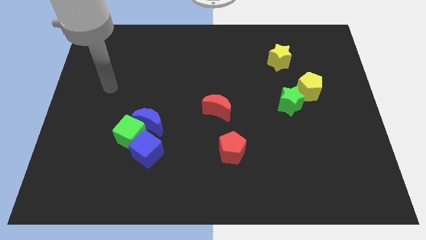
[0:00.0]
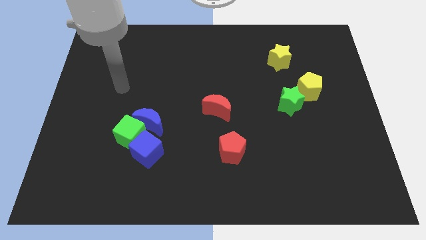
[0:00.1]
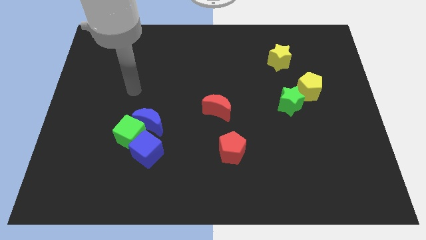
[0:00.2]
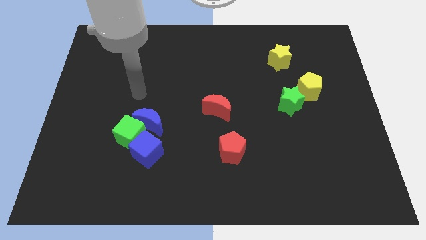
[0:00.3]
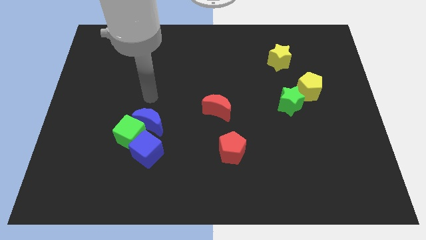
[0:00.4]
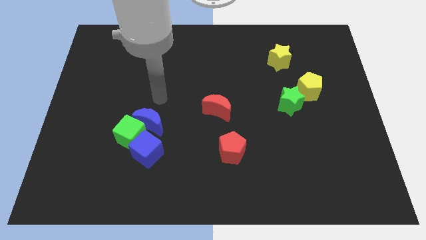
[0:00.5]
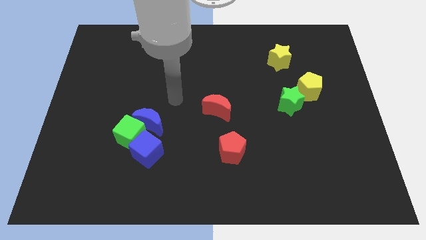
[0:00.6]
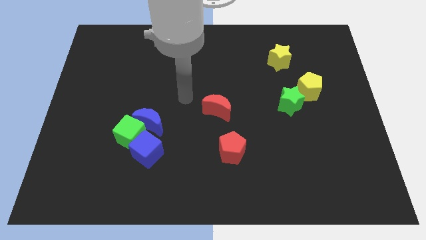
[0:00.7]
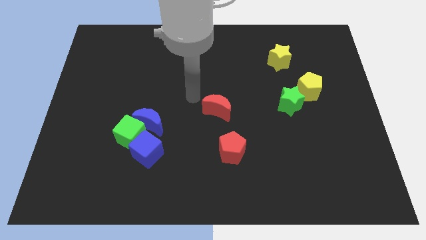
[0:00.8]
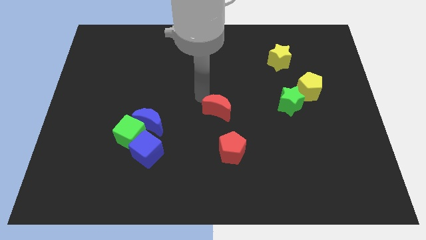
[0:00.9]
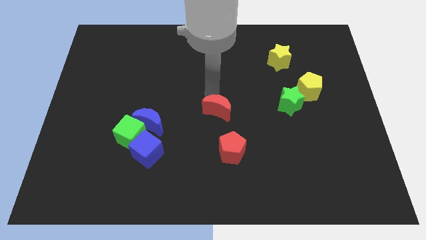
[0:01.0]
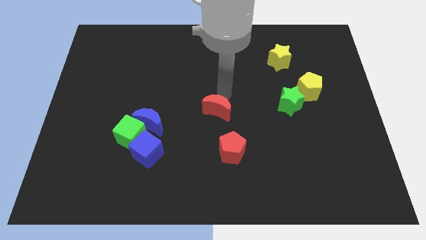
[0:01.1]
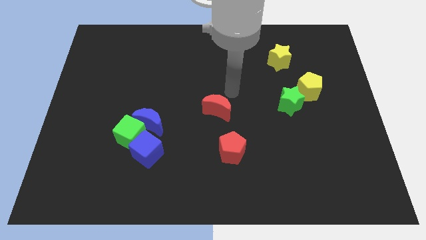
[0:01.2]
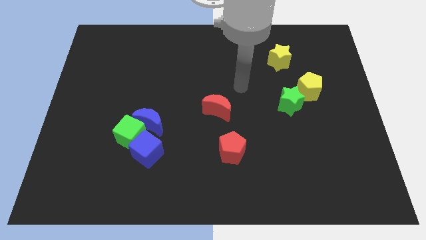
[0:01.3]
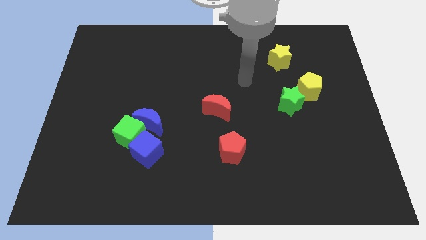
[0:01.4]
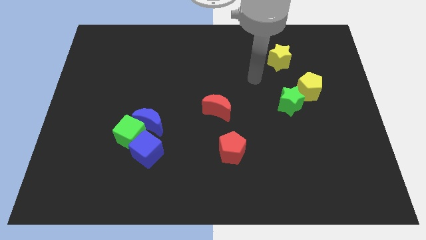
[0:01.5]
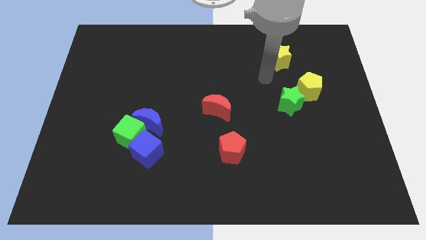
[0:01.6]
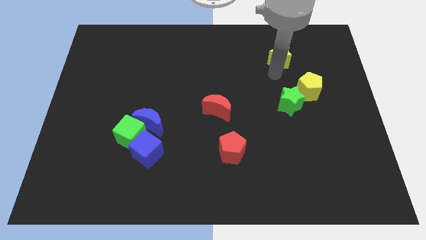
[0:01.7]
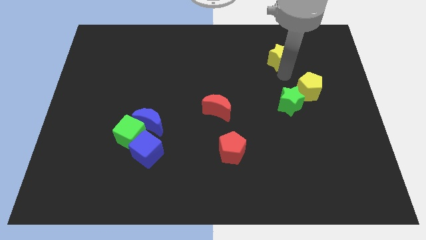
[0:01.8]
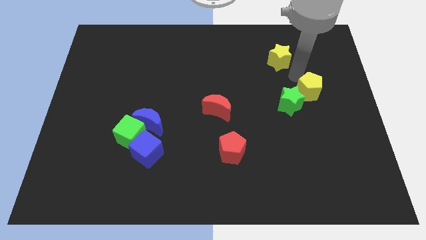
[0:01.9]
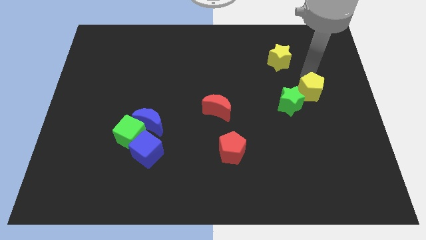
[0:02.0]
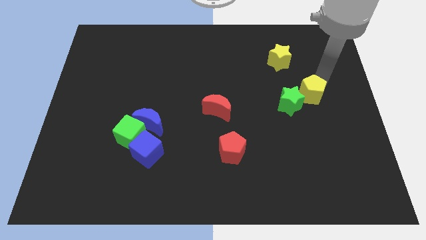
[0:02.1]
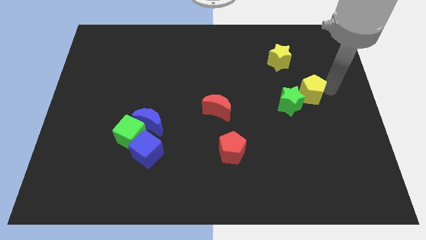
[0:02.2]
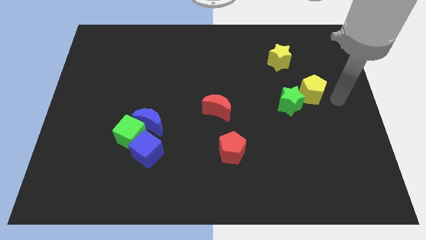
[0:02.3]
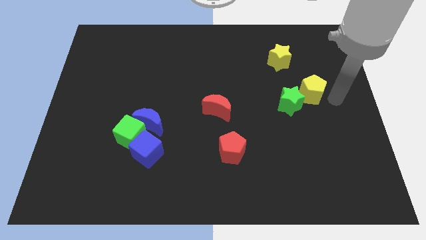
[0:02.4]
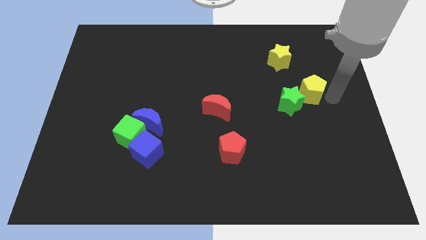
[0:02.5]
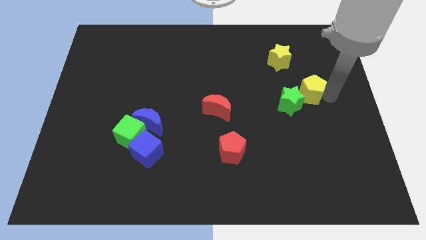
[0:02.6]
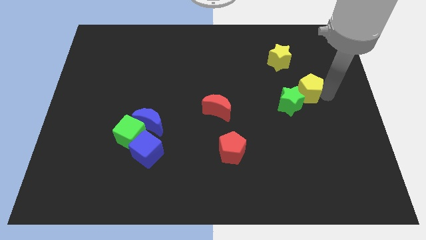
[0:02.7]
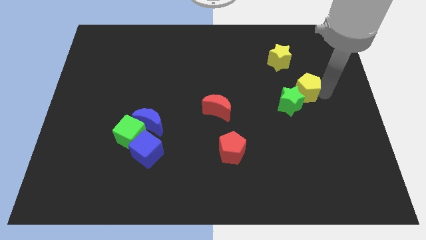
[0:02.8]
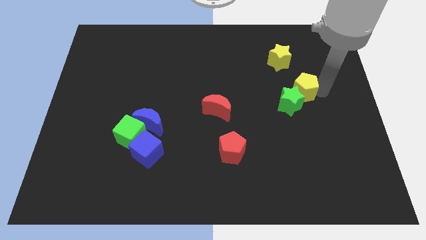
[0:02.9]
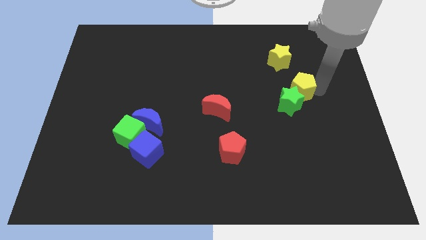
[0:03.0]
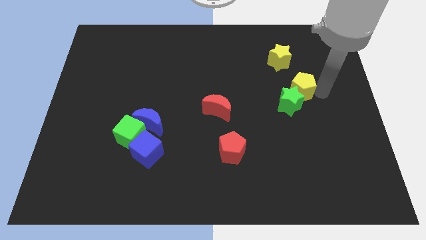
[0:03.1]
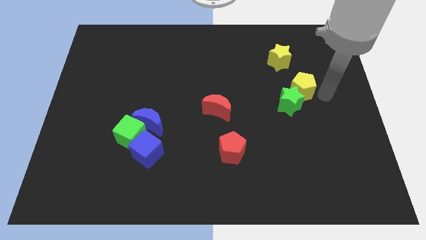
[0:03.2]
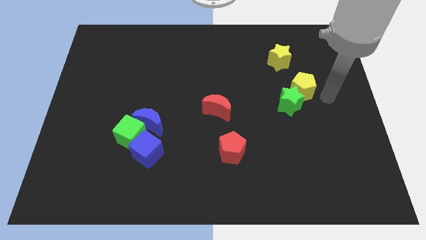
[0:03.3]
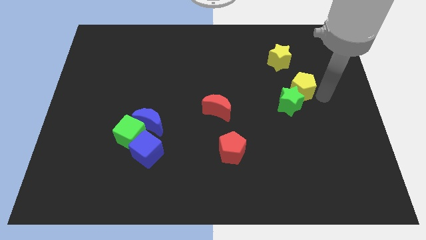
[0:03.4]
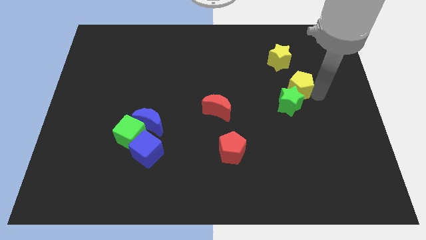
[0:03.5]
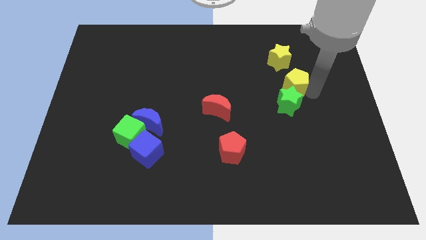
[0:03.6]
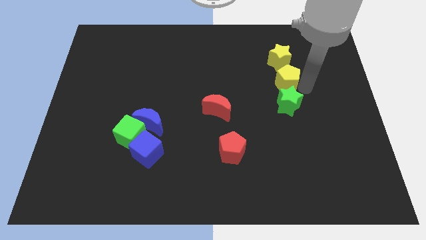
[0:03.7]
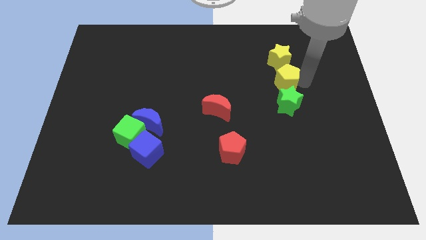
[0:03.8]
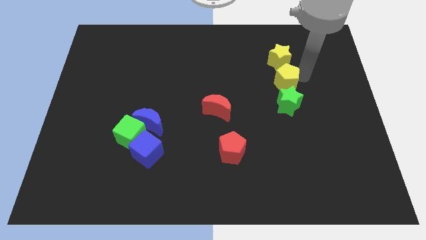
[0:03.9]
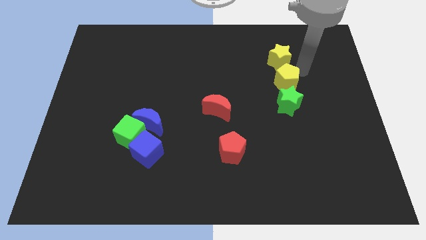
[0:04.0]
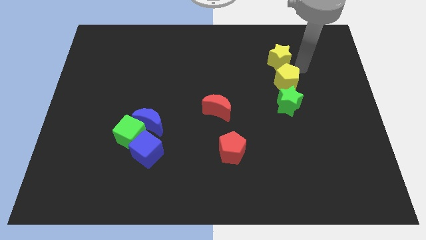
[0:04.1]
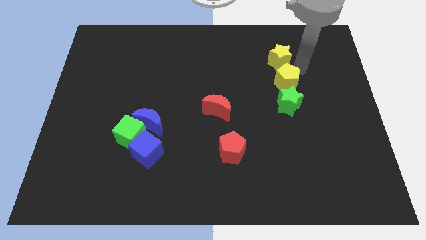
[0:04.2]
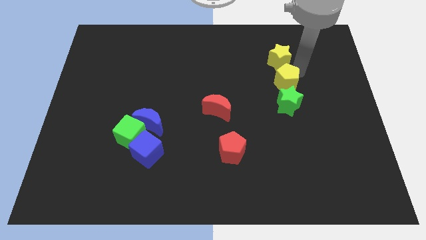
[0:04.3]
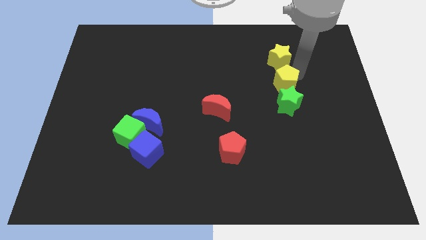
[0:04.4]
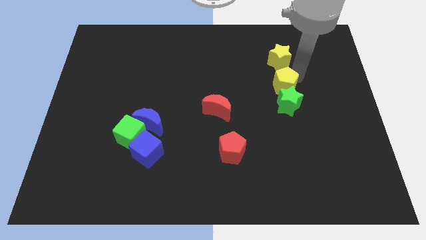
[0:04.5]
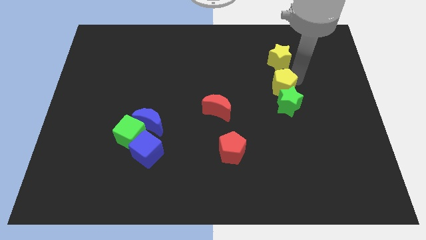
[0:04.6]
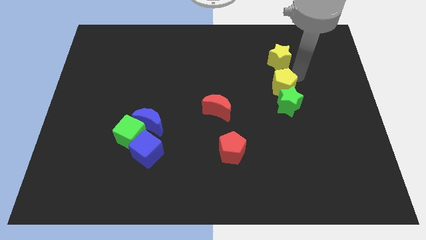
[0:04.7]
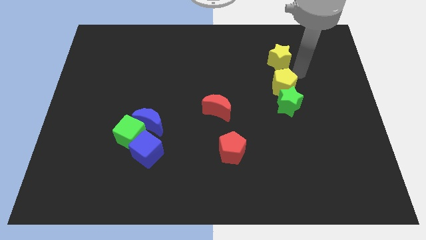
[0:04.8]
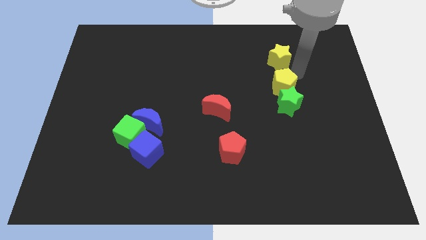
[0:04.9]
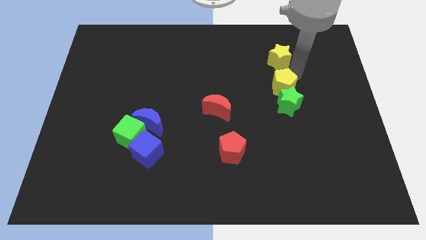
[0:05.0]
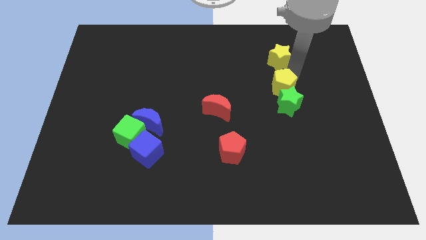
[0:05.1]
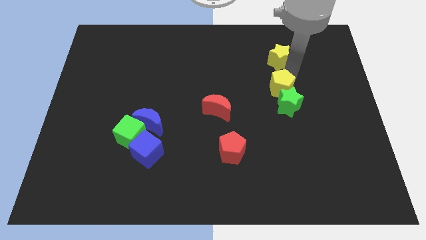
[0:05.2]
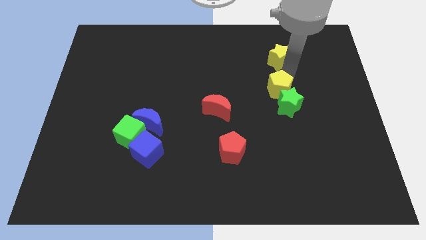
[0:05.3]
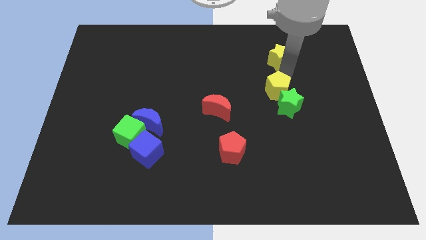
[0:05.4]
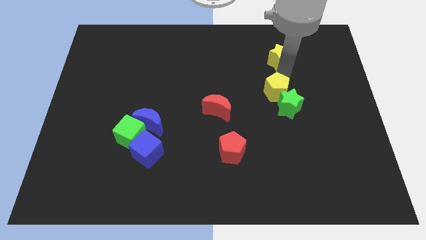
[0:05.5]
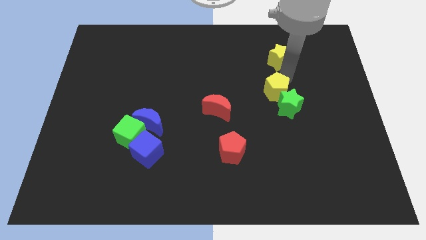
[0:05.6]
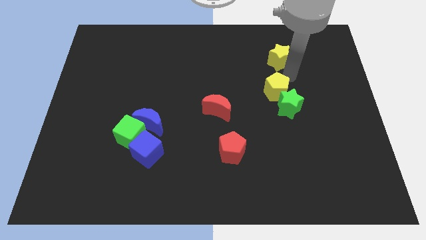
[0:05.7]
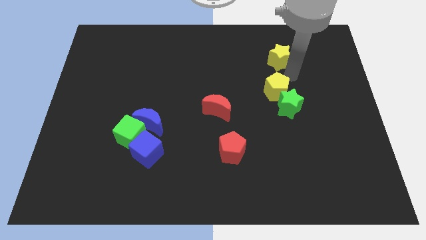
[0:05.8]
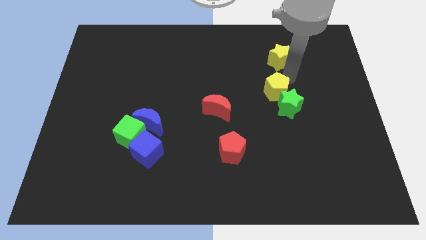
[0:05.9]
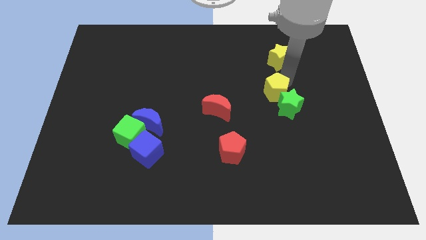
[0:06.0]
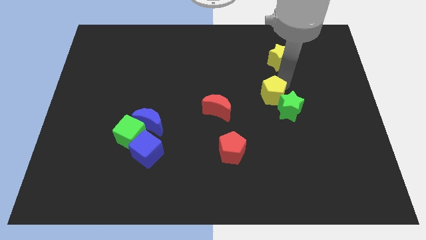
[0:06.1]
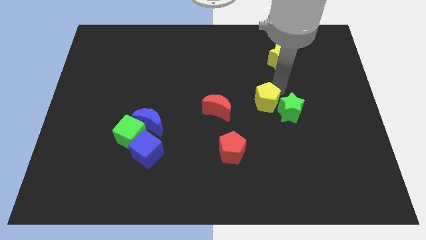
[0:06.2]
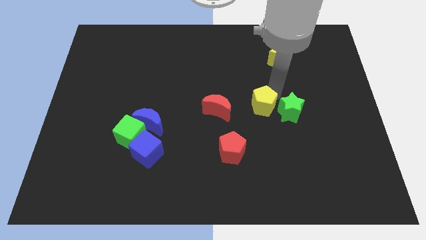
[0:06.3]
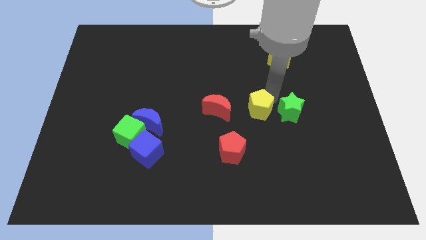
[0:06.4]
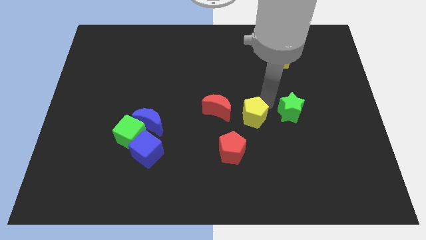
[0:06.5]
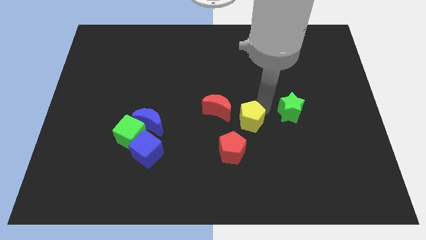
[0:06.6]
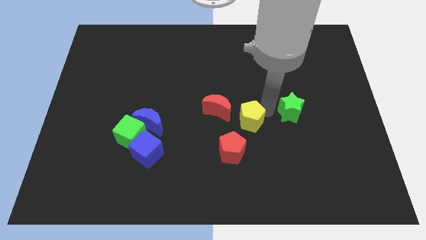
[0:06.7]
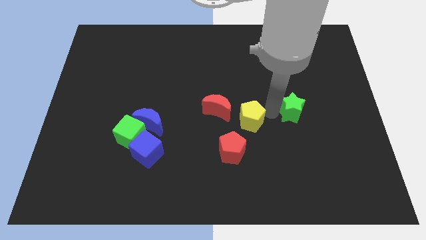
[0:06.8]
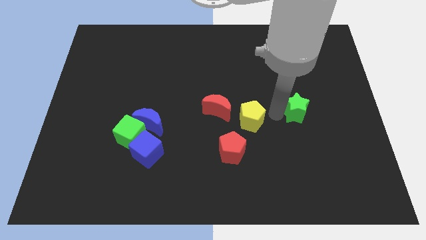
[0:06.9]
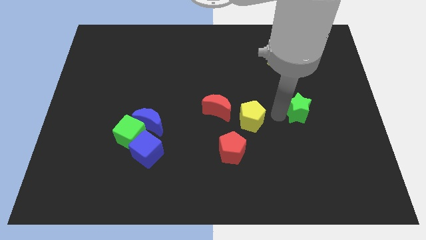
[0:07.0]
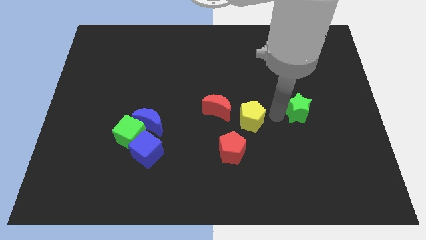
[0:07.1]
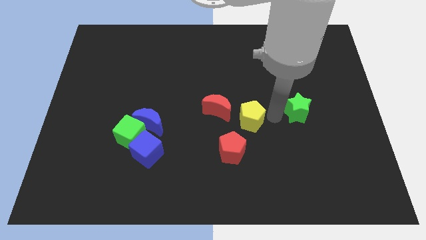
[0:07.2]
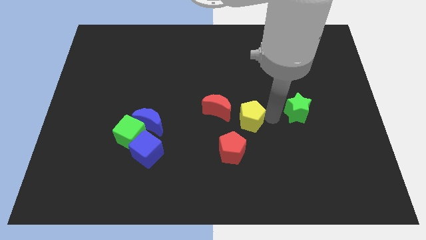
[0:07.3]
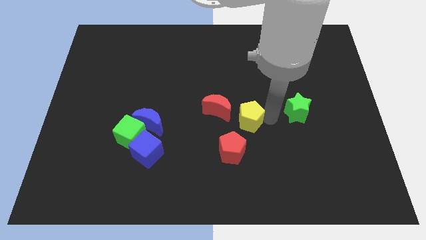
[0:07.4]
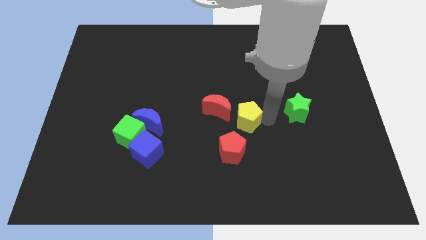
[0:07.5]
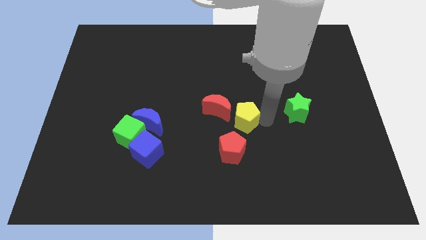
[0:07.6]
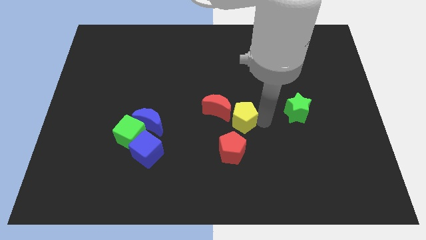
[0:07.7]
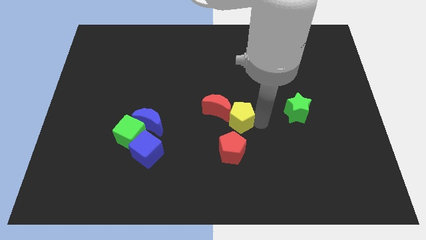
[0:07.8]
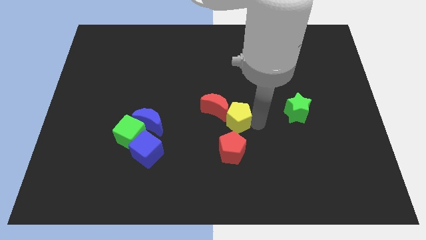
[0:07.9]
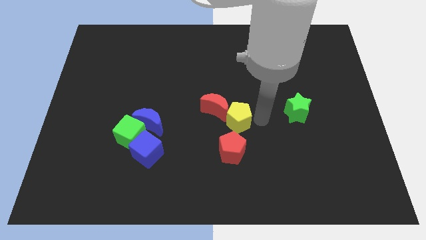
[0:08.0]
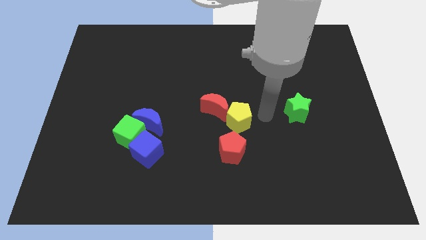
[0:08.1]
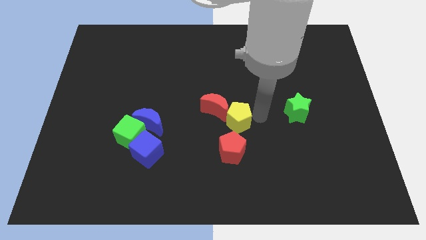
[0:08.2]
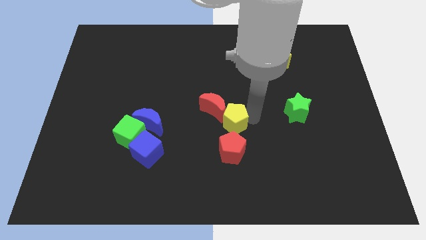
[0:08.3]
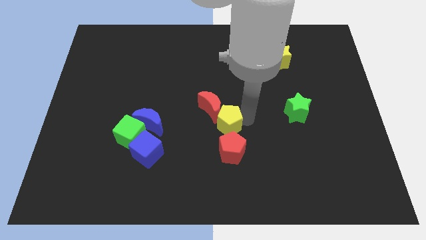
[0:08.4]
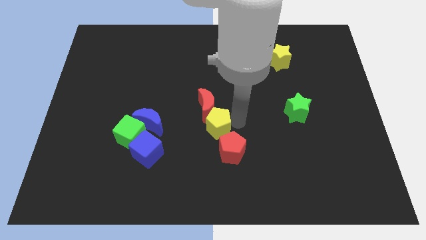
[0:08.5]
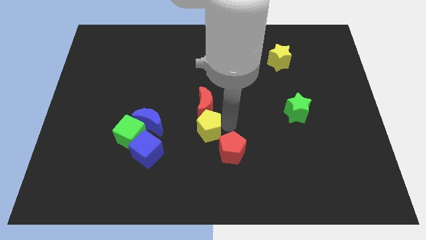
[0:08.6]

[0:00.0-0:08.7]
move the yellow pentagon diagonally down and to the left of the red moon
